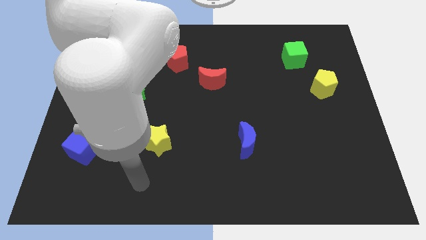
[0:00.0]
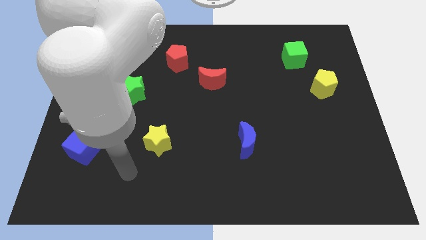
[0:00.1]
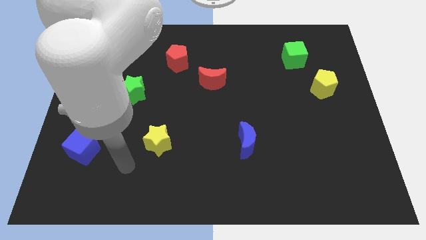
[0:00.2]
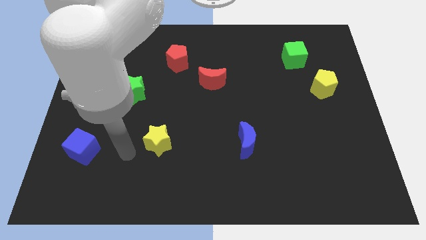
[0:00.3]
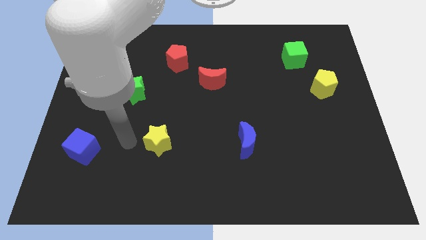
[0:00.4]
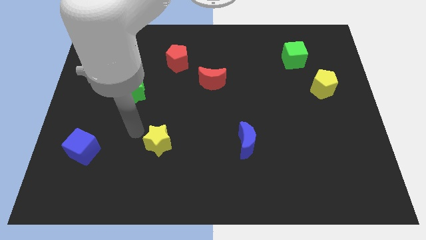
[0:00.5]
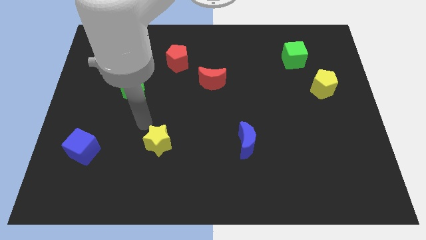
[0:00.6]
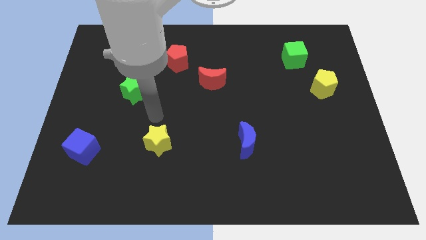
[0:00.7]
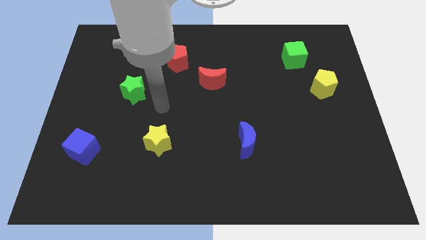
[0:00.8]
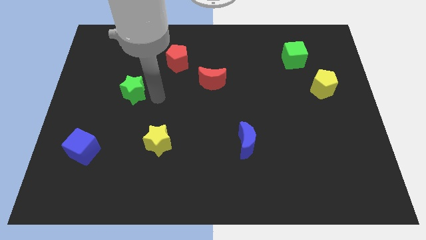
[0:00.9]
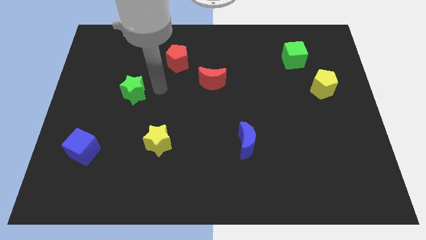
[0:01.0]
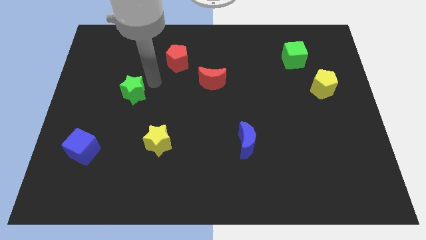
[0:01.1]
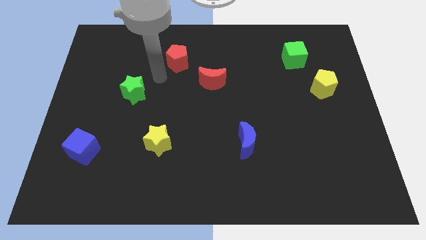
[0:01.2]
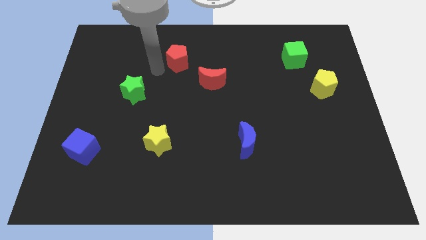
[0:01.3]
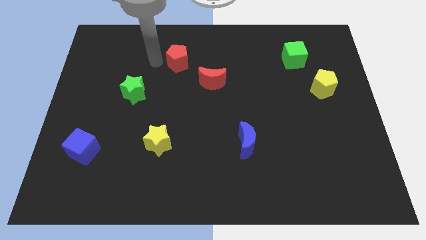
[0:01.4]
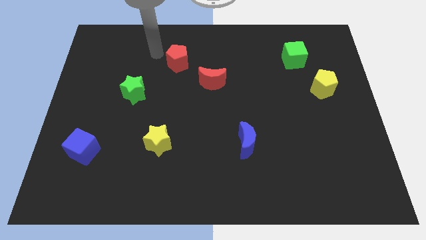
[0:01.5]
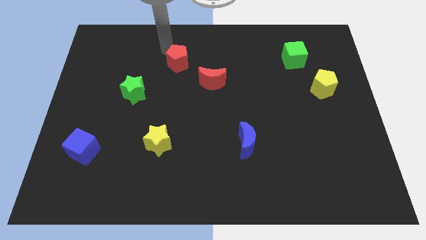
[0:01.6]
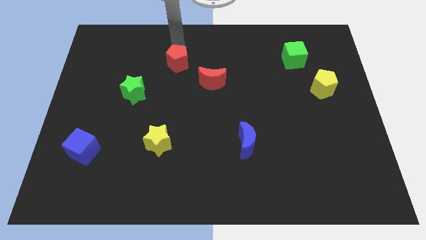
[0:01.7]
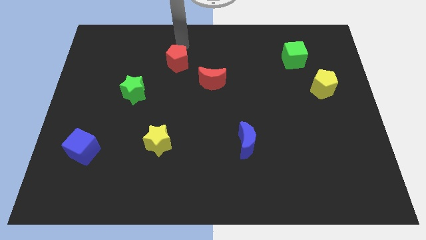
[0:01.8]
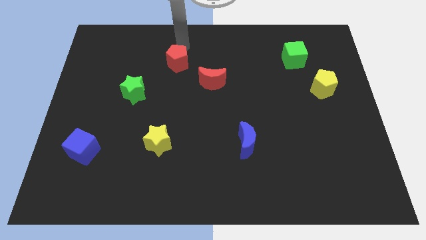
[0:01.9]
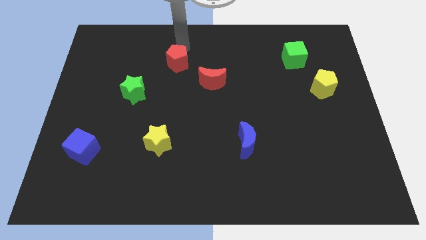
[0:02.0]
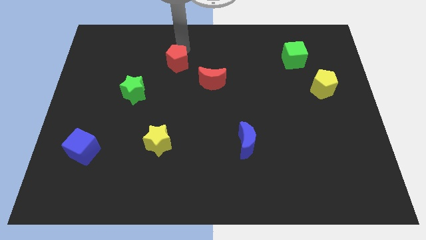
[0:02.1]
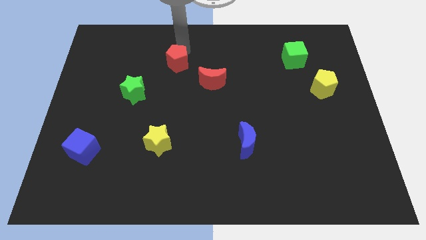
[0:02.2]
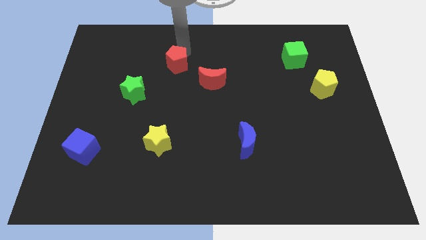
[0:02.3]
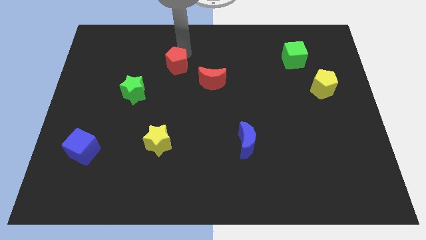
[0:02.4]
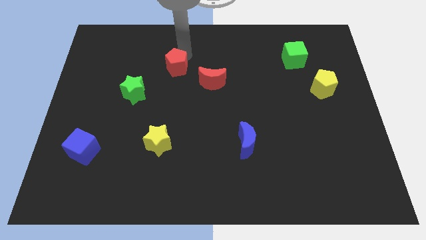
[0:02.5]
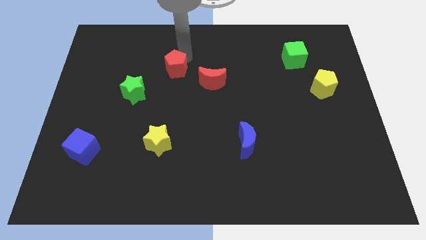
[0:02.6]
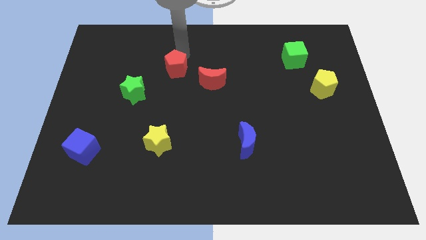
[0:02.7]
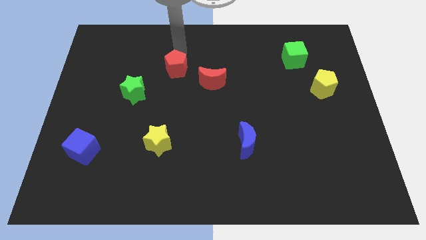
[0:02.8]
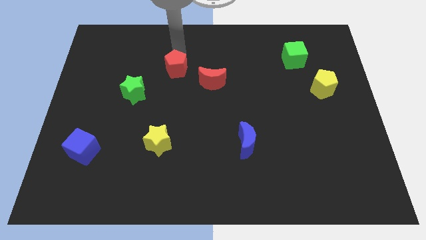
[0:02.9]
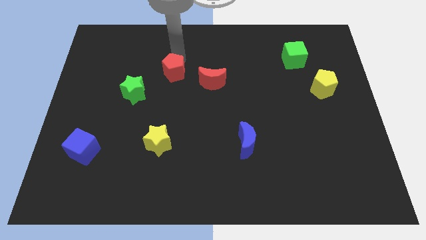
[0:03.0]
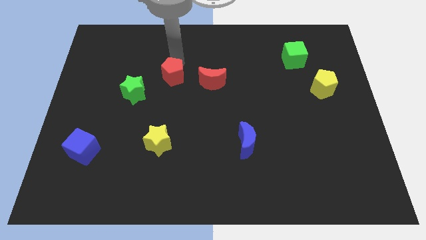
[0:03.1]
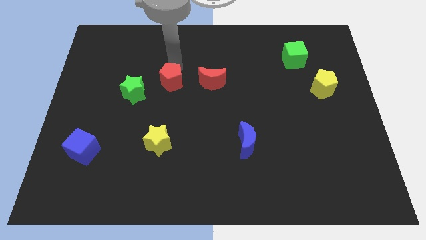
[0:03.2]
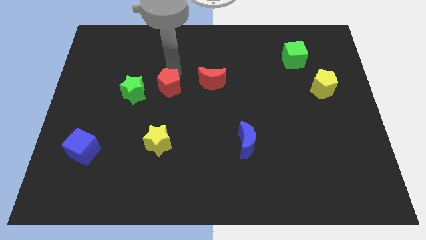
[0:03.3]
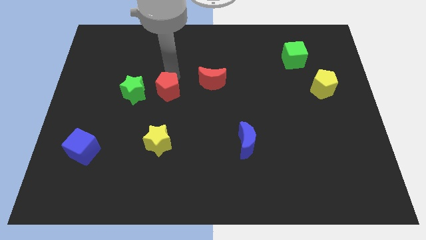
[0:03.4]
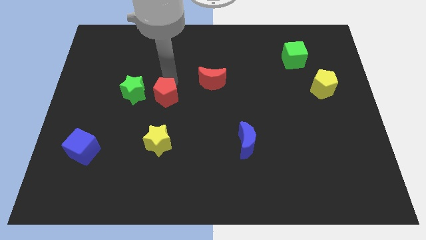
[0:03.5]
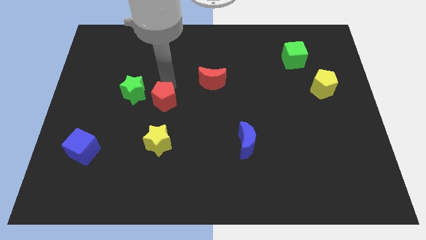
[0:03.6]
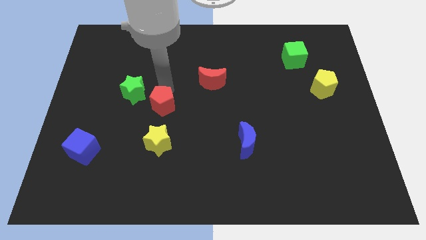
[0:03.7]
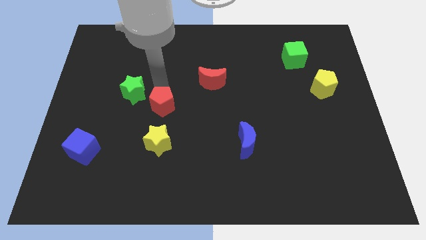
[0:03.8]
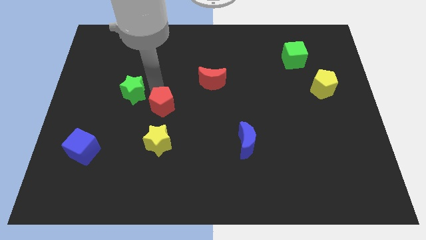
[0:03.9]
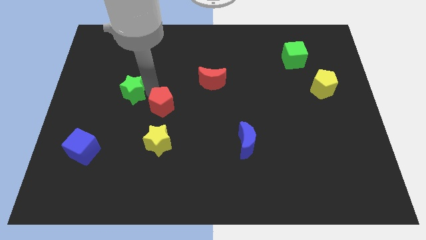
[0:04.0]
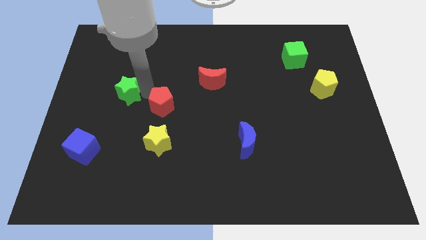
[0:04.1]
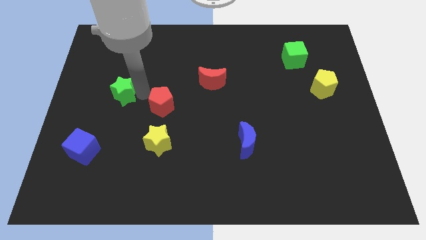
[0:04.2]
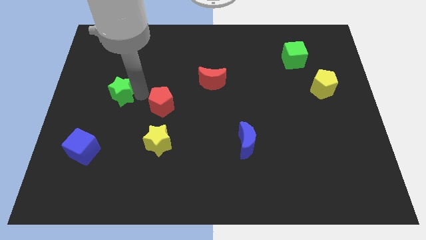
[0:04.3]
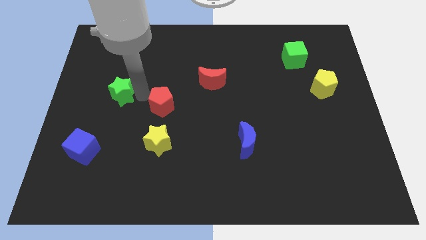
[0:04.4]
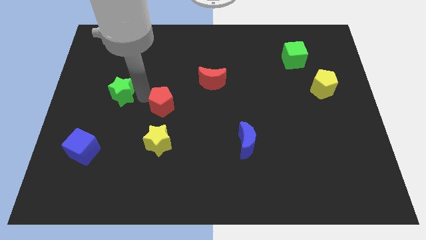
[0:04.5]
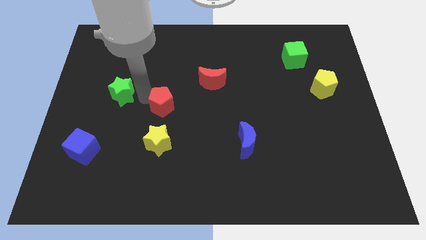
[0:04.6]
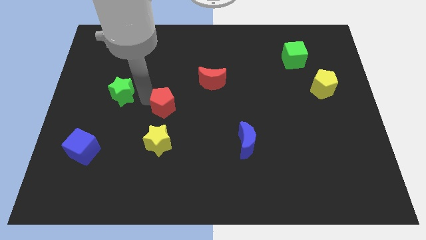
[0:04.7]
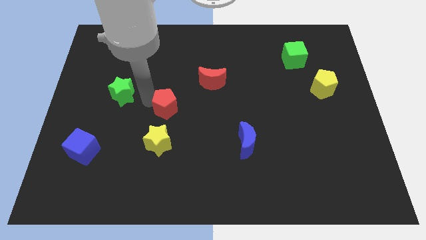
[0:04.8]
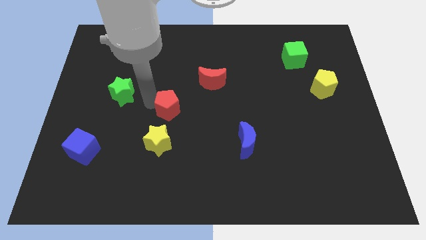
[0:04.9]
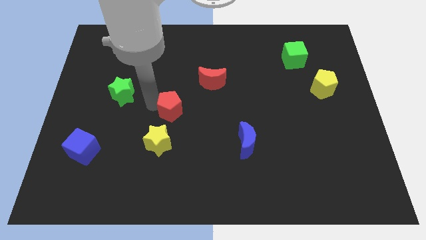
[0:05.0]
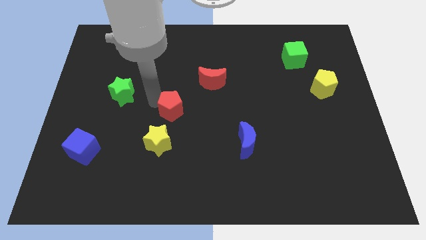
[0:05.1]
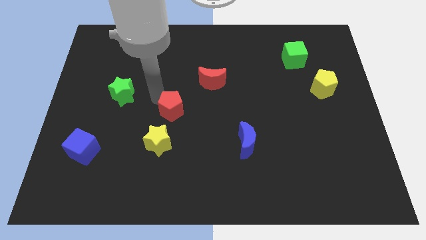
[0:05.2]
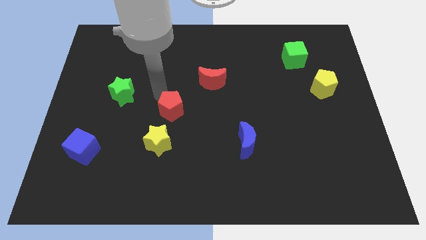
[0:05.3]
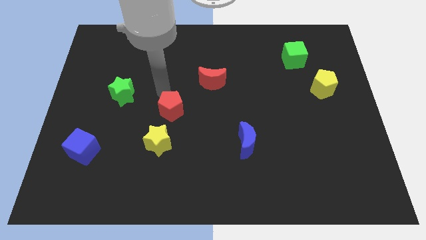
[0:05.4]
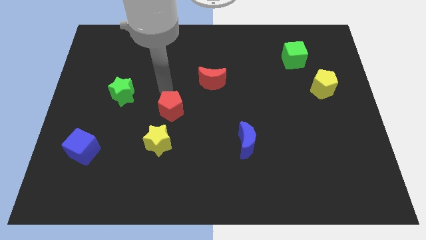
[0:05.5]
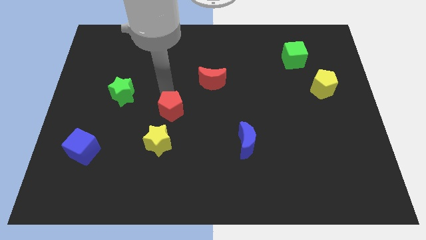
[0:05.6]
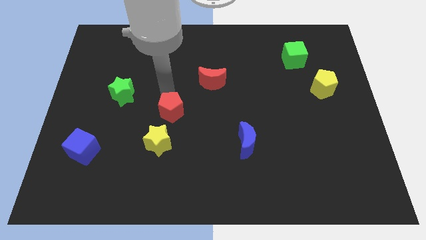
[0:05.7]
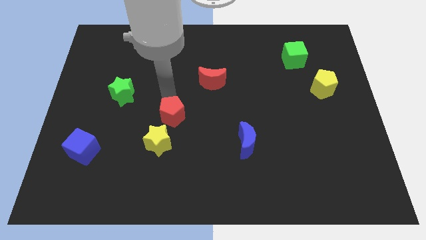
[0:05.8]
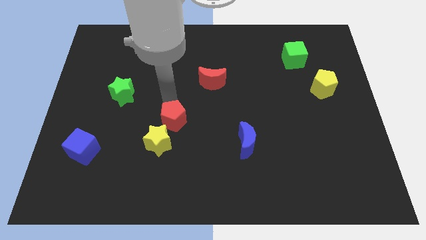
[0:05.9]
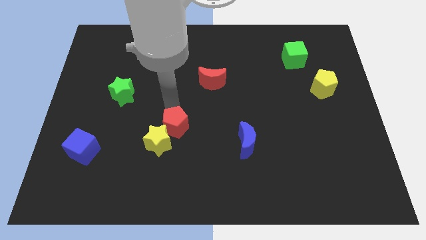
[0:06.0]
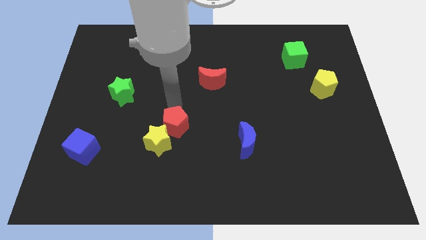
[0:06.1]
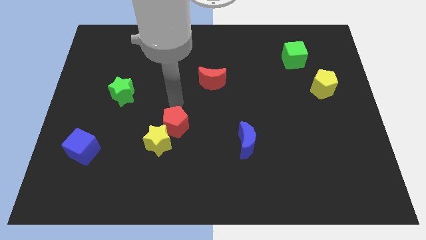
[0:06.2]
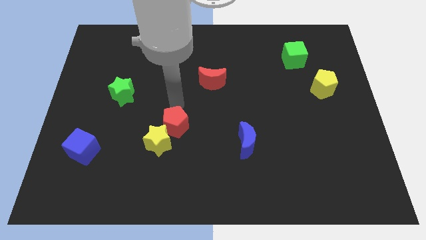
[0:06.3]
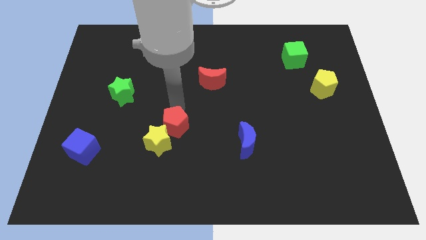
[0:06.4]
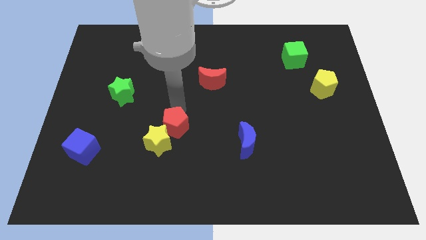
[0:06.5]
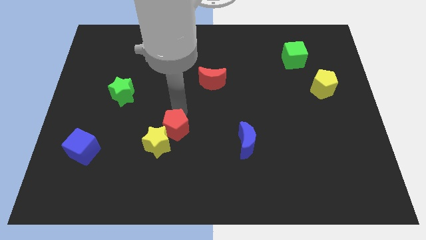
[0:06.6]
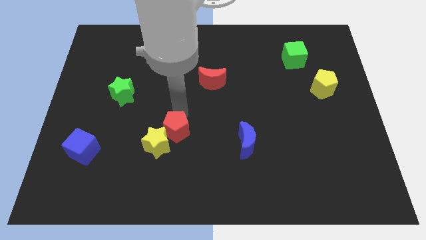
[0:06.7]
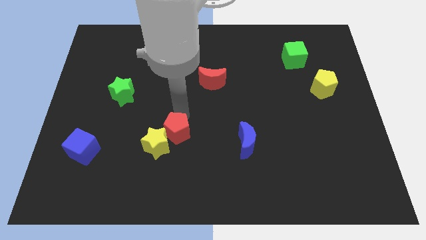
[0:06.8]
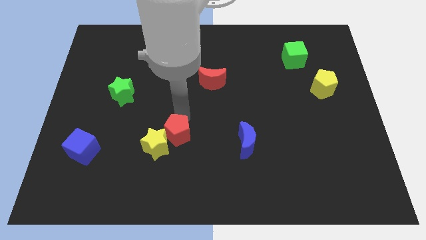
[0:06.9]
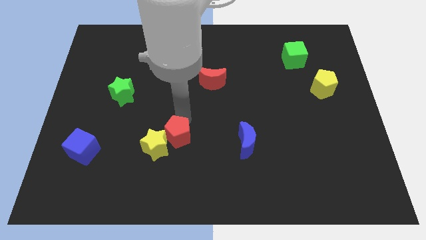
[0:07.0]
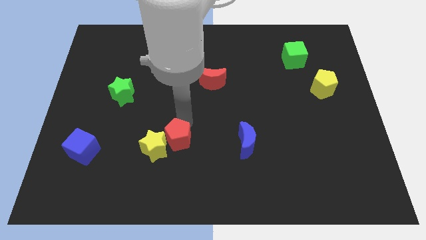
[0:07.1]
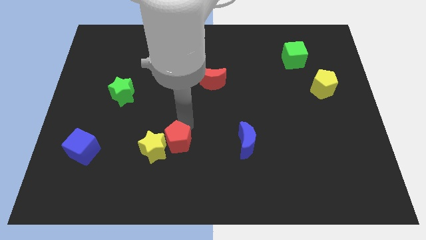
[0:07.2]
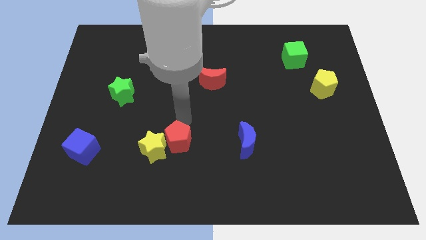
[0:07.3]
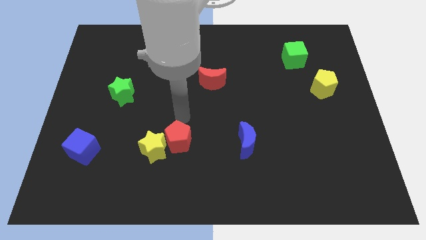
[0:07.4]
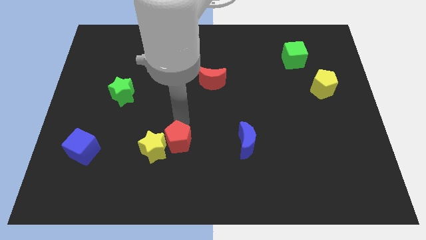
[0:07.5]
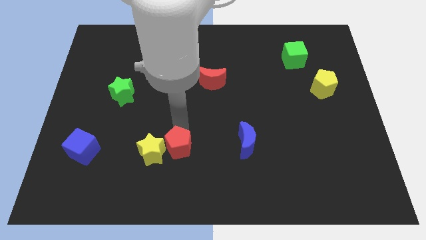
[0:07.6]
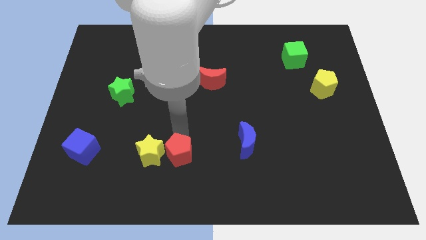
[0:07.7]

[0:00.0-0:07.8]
push the red pentagon to the bottom right side of the yellow star
